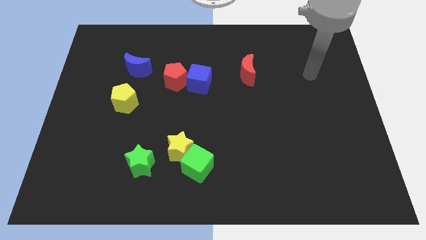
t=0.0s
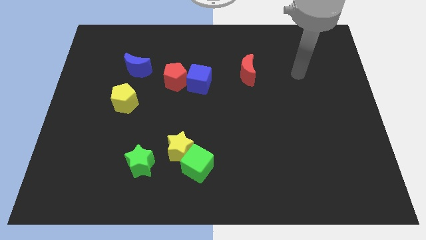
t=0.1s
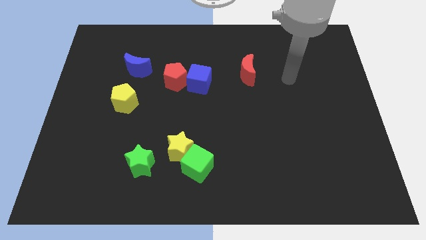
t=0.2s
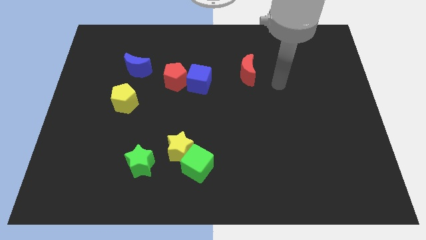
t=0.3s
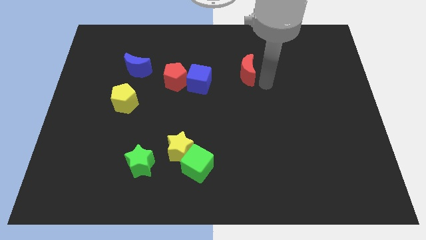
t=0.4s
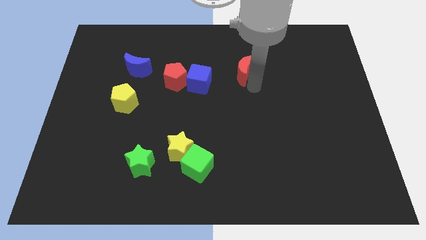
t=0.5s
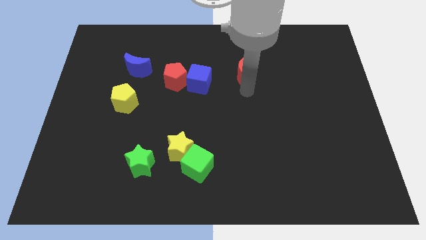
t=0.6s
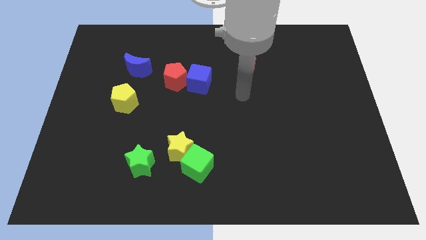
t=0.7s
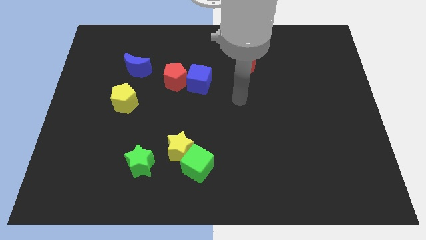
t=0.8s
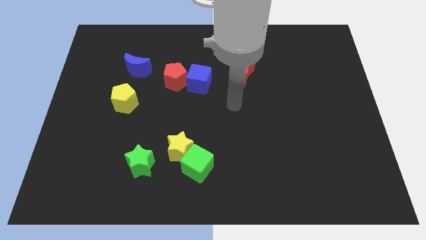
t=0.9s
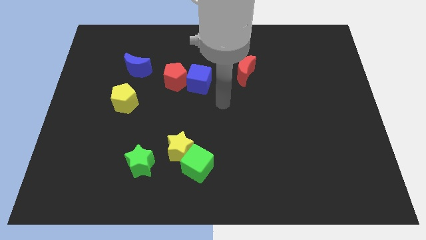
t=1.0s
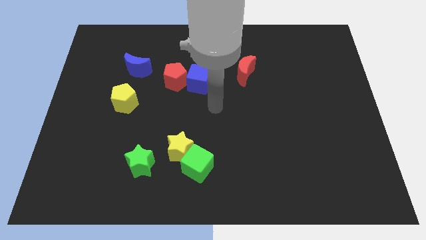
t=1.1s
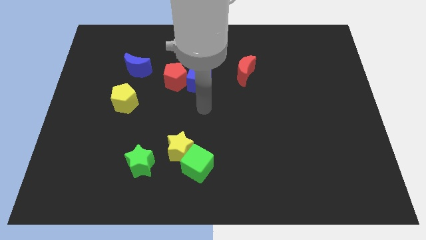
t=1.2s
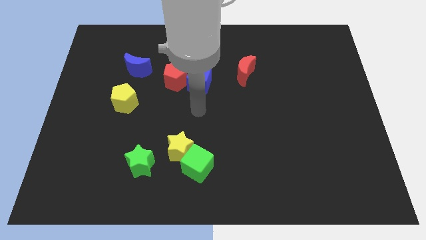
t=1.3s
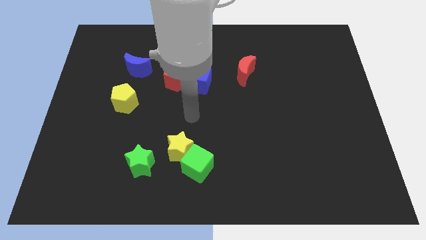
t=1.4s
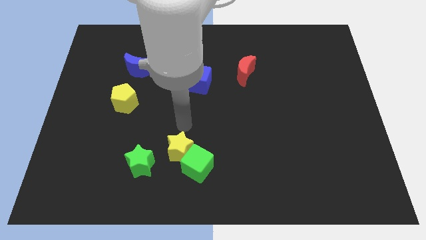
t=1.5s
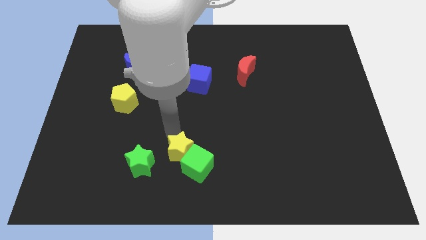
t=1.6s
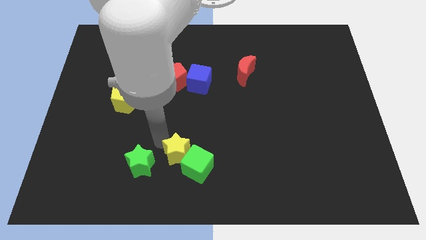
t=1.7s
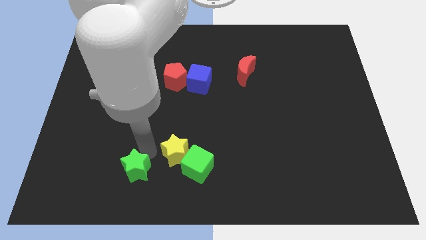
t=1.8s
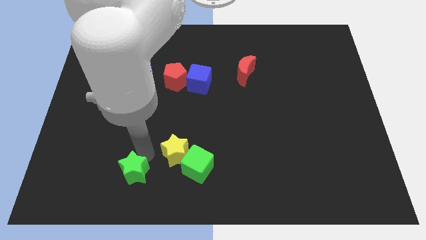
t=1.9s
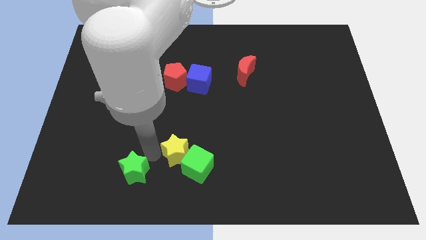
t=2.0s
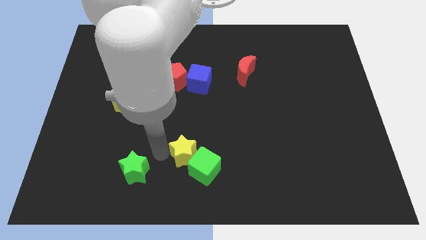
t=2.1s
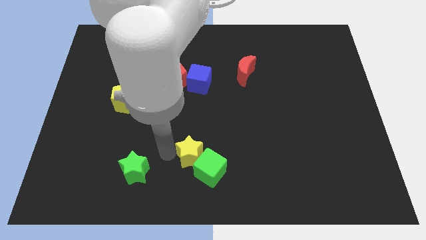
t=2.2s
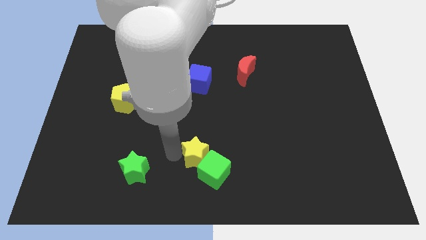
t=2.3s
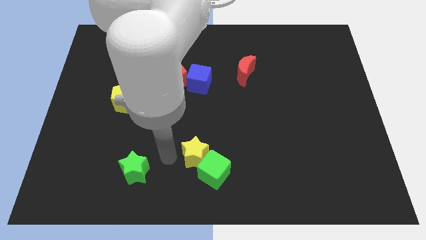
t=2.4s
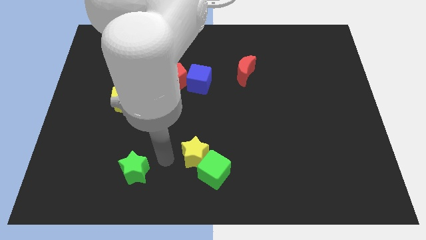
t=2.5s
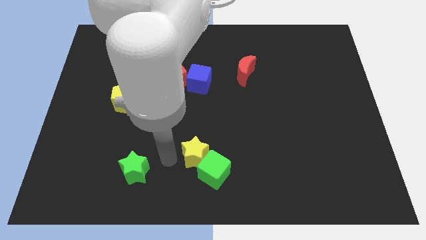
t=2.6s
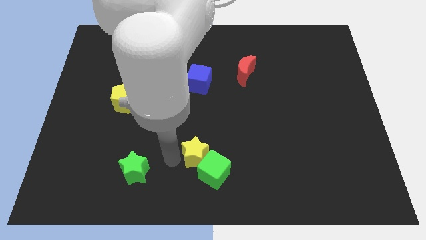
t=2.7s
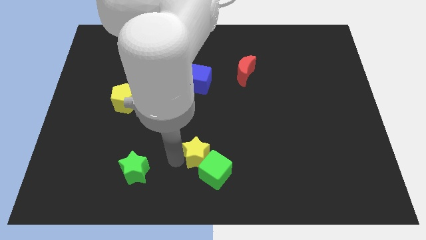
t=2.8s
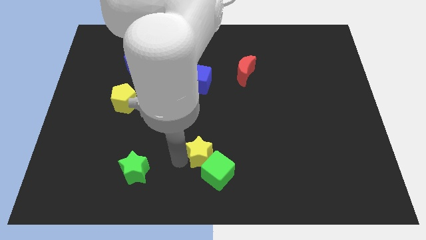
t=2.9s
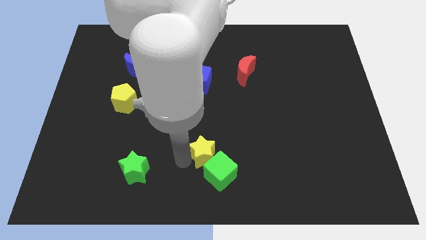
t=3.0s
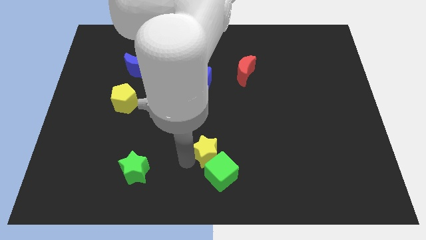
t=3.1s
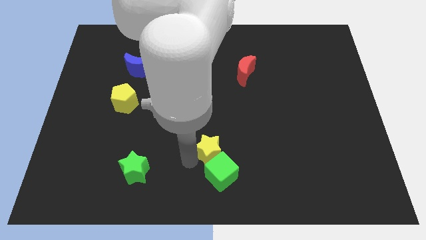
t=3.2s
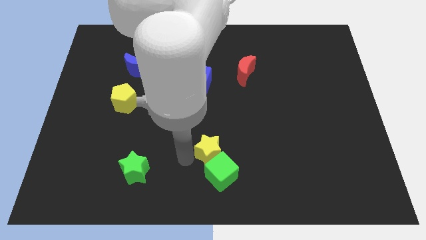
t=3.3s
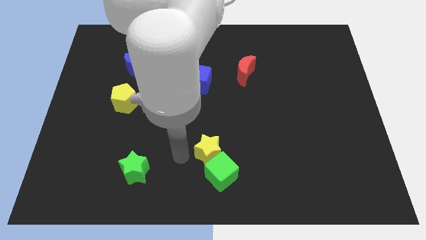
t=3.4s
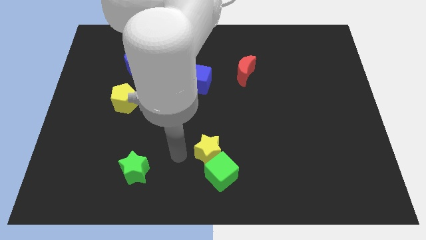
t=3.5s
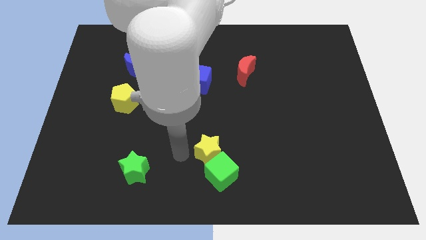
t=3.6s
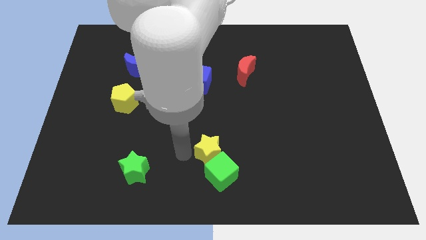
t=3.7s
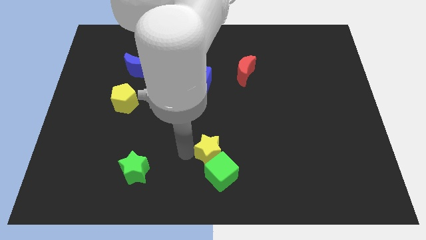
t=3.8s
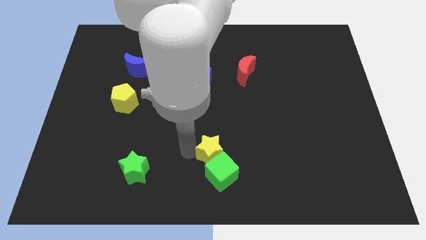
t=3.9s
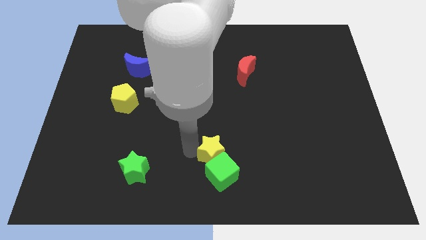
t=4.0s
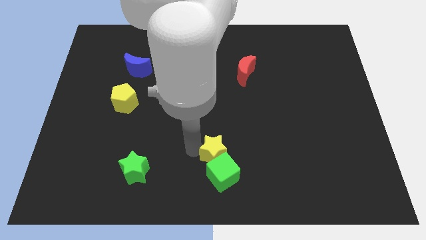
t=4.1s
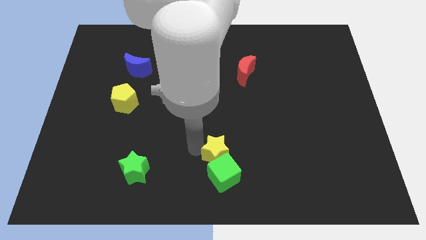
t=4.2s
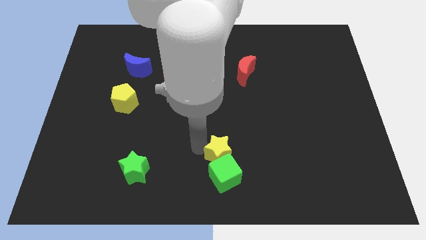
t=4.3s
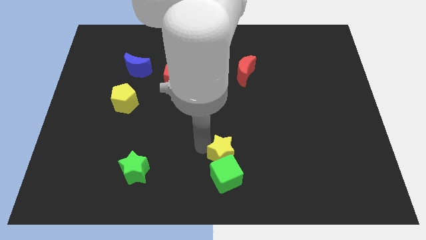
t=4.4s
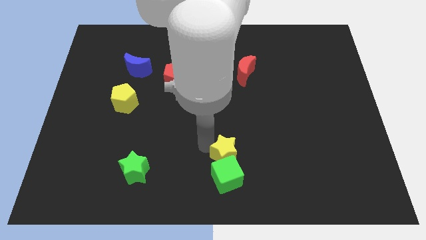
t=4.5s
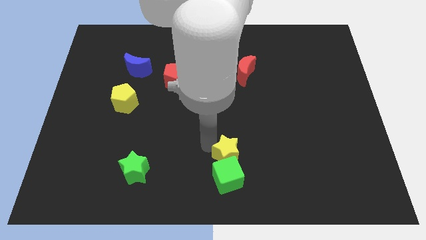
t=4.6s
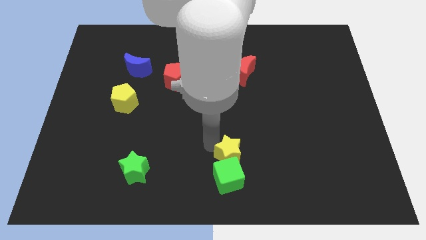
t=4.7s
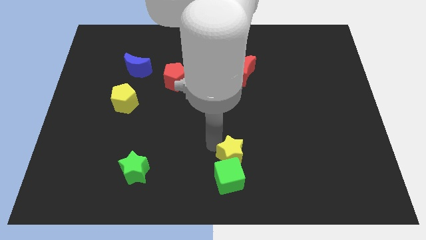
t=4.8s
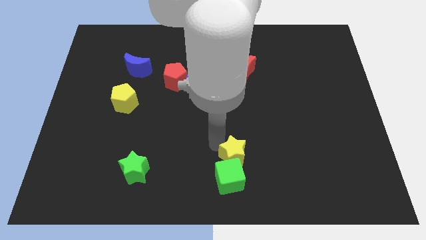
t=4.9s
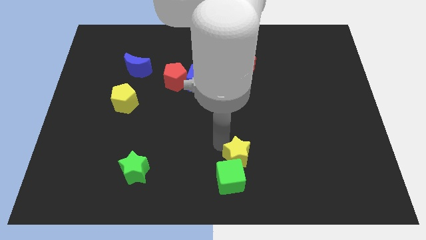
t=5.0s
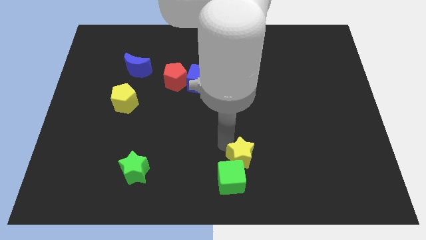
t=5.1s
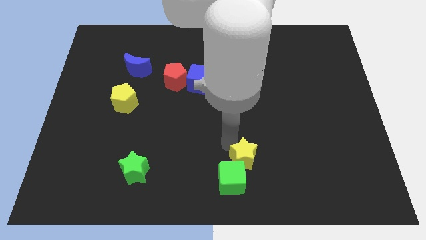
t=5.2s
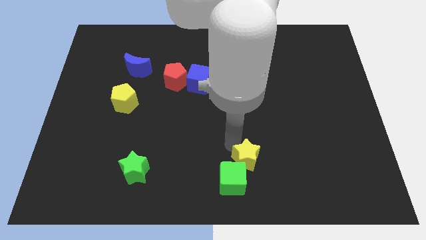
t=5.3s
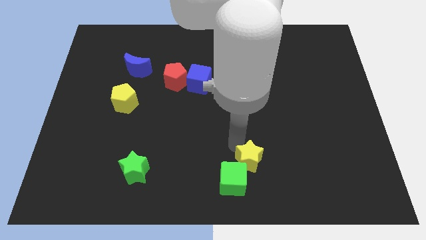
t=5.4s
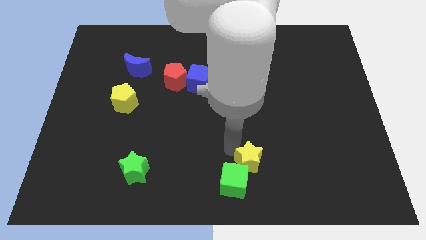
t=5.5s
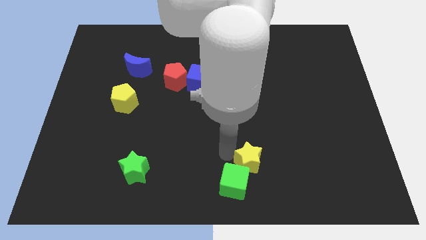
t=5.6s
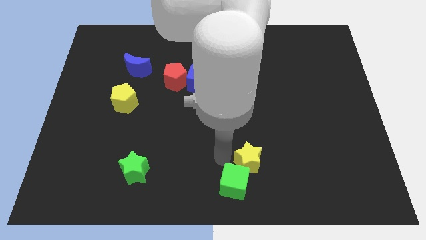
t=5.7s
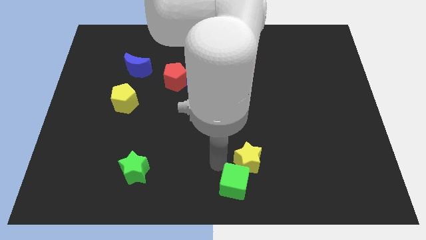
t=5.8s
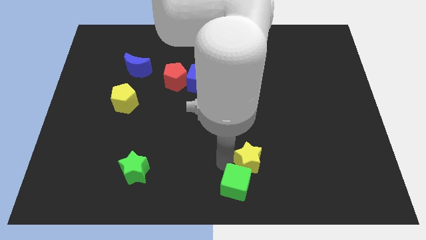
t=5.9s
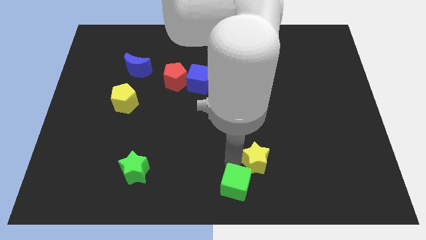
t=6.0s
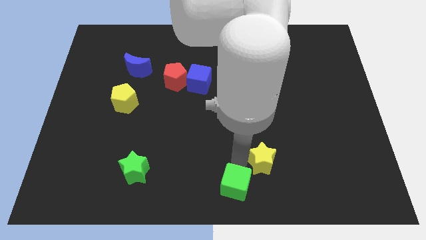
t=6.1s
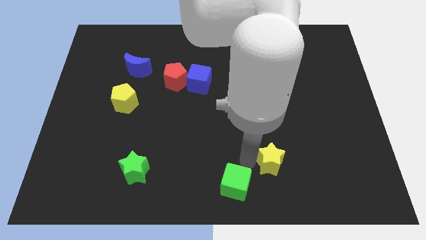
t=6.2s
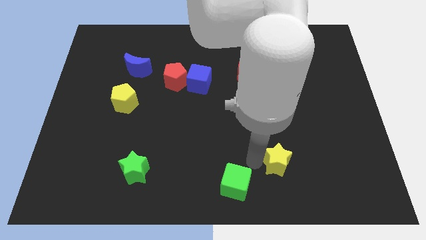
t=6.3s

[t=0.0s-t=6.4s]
push the yellow star right

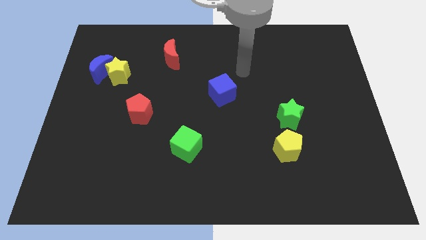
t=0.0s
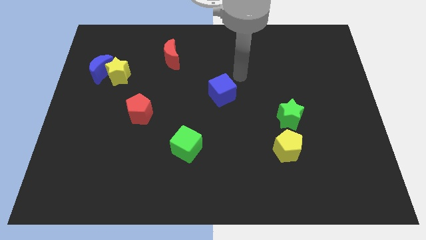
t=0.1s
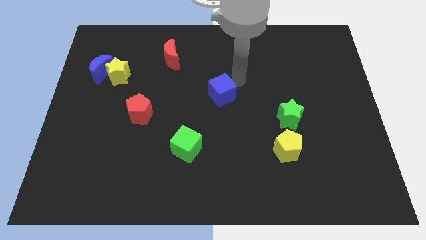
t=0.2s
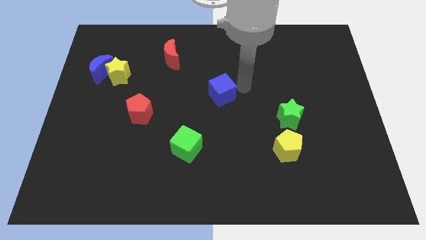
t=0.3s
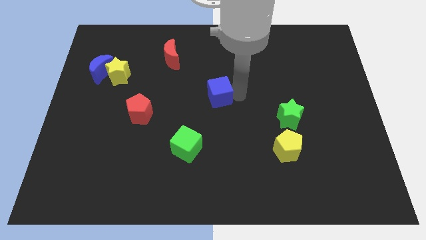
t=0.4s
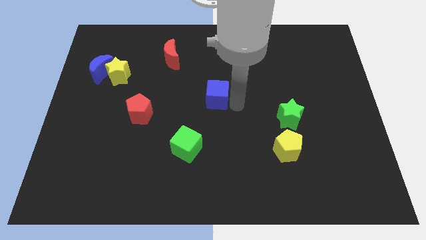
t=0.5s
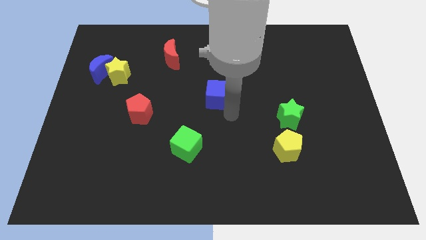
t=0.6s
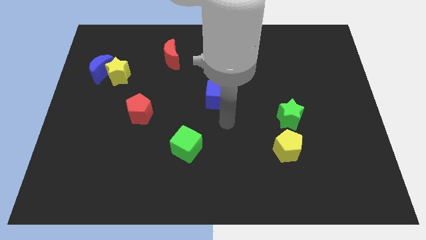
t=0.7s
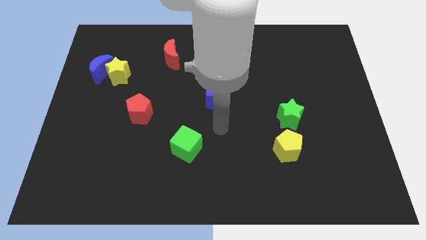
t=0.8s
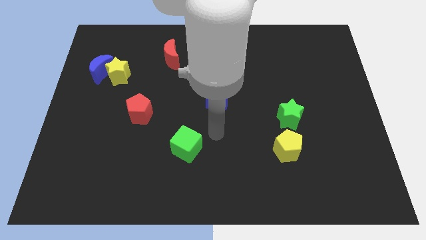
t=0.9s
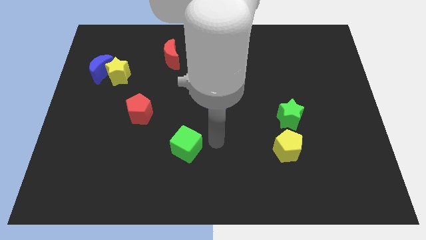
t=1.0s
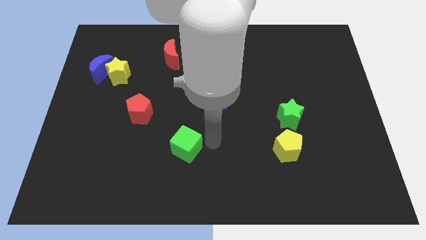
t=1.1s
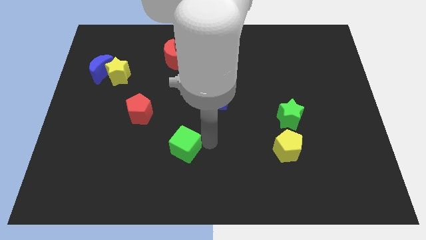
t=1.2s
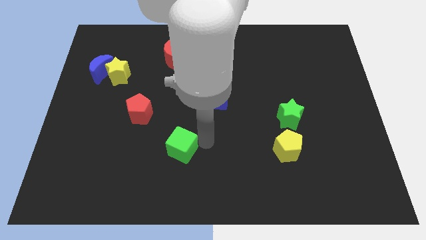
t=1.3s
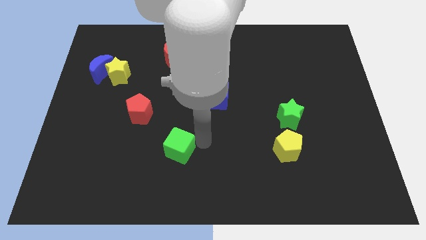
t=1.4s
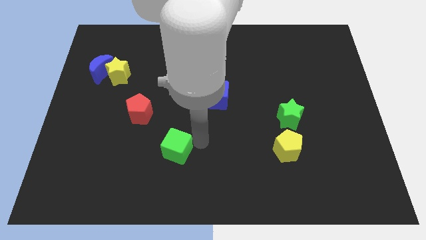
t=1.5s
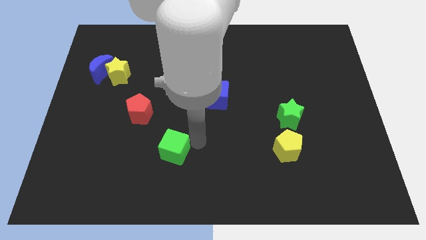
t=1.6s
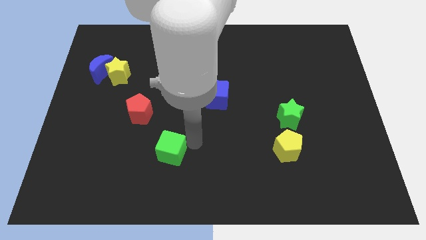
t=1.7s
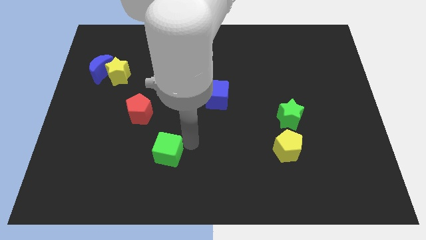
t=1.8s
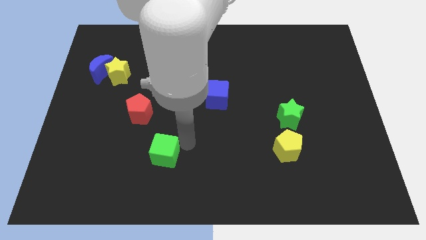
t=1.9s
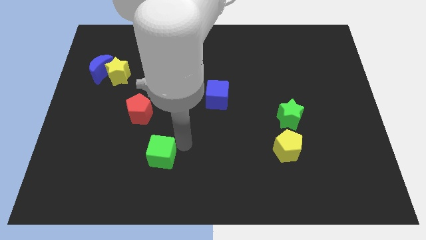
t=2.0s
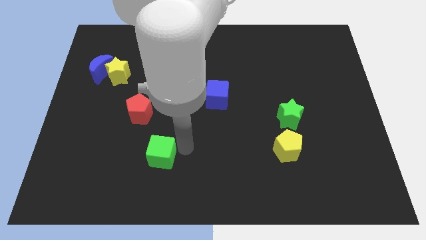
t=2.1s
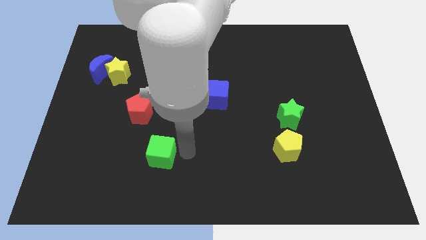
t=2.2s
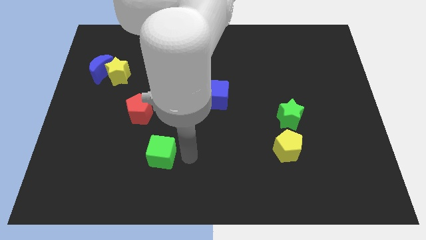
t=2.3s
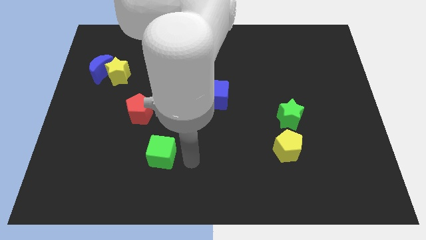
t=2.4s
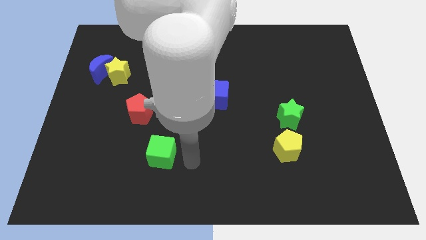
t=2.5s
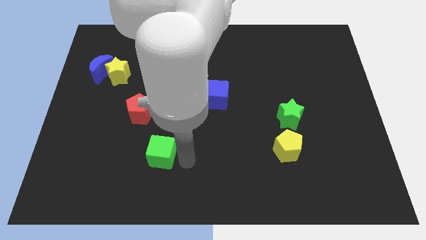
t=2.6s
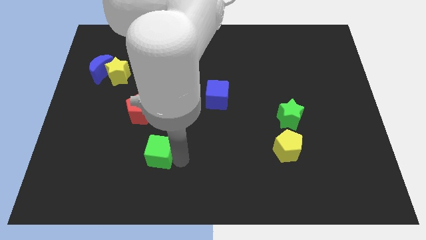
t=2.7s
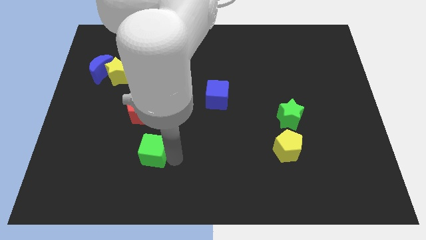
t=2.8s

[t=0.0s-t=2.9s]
push the green cube left a bit
